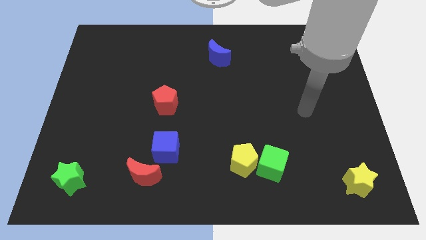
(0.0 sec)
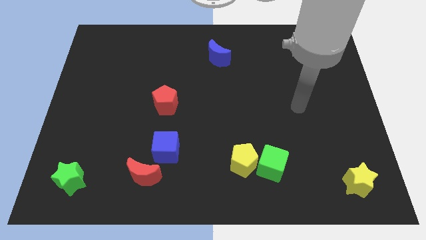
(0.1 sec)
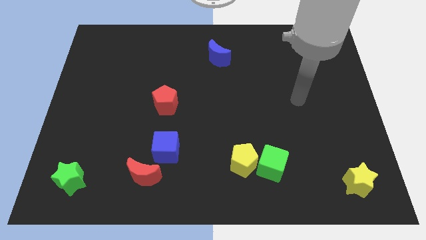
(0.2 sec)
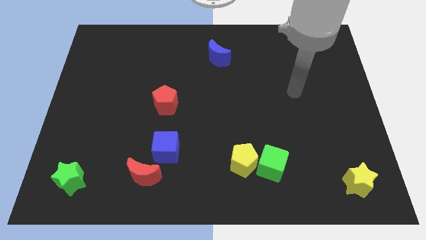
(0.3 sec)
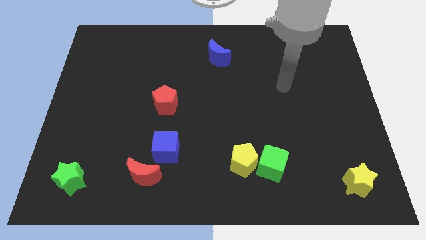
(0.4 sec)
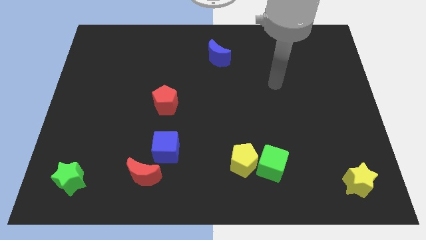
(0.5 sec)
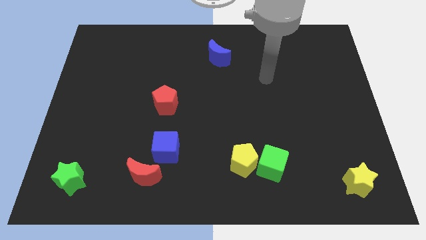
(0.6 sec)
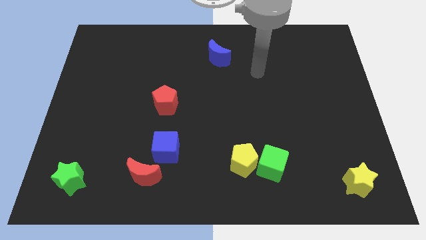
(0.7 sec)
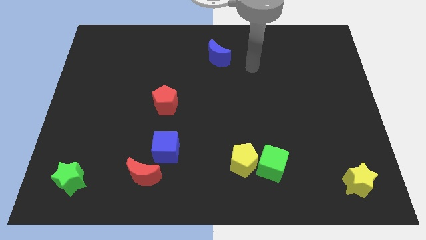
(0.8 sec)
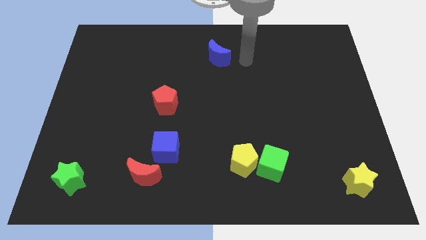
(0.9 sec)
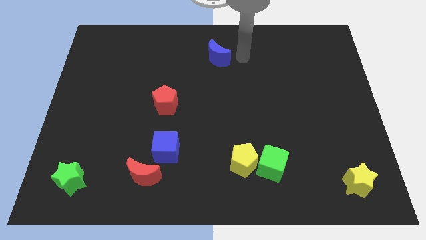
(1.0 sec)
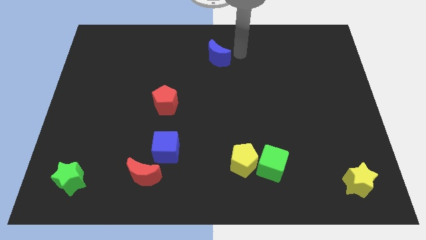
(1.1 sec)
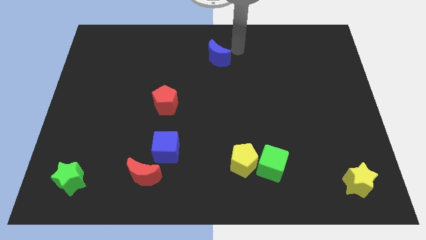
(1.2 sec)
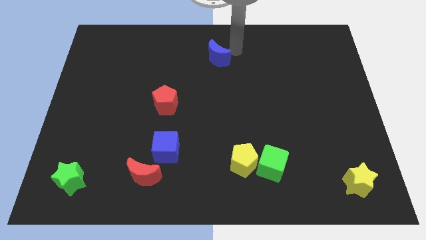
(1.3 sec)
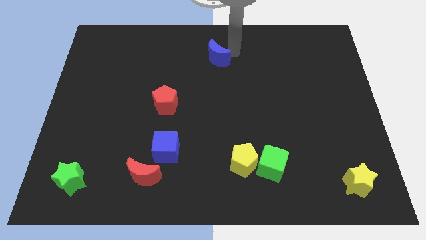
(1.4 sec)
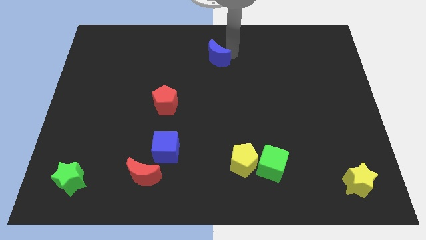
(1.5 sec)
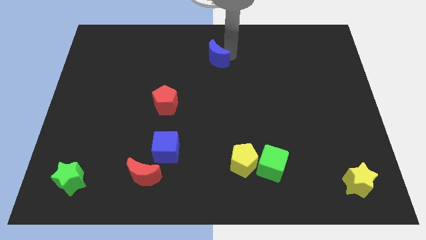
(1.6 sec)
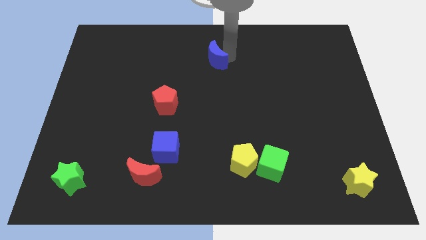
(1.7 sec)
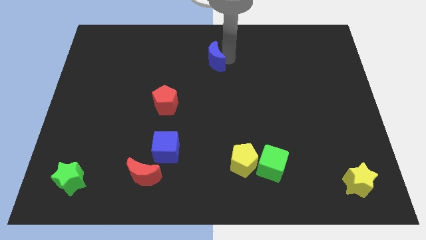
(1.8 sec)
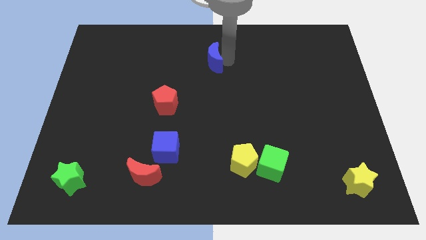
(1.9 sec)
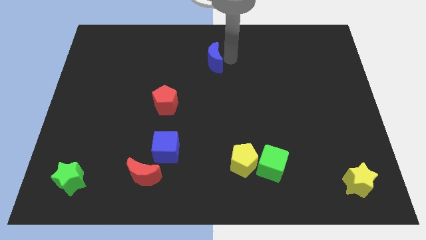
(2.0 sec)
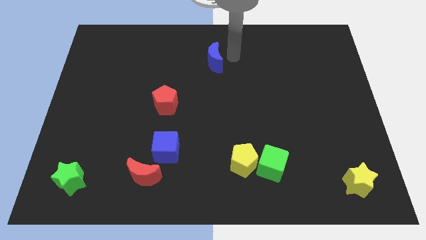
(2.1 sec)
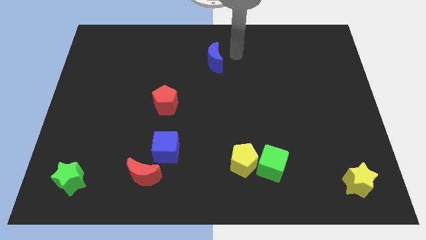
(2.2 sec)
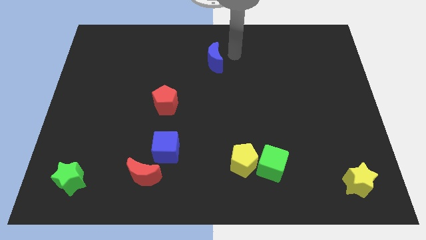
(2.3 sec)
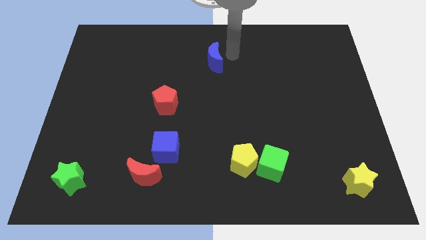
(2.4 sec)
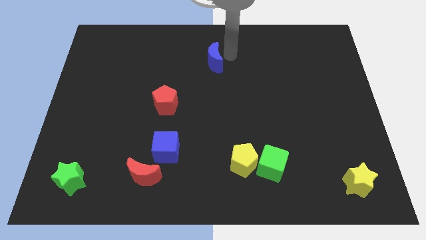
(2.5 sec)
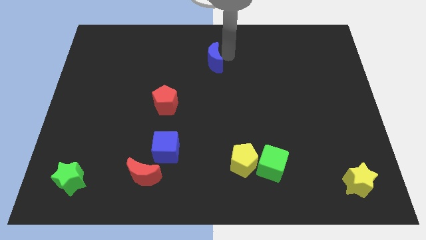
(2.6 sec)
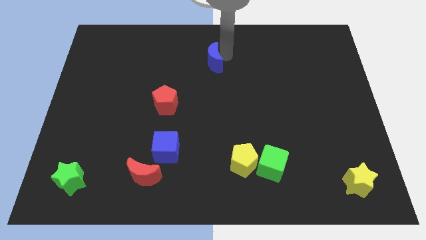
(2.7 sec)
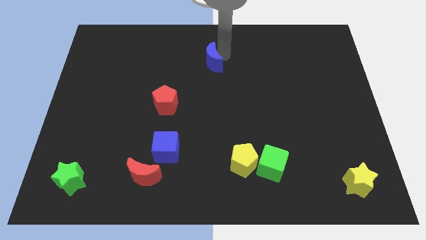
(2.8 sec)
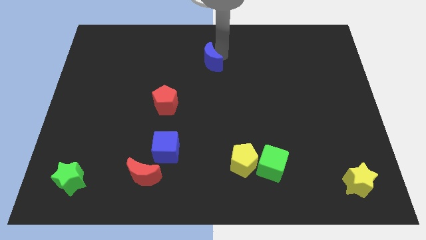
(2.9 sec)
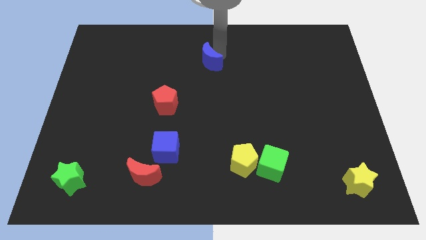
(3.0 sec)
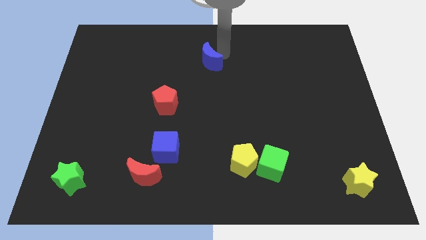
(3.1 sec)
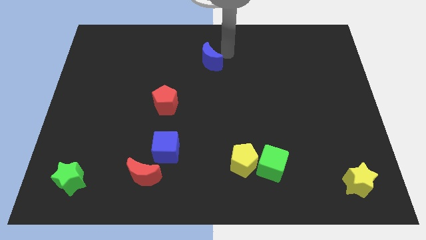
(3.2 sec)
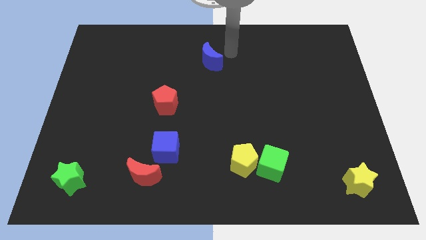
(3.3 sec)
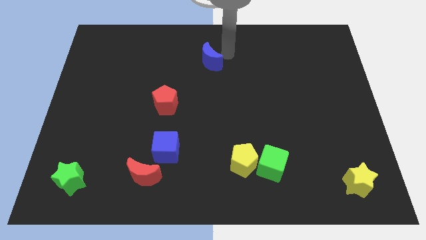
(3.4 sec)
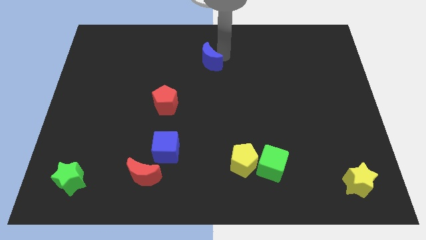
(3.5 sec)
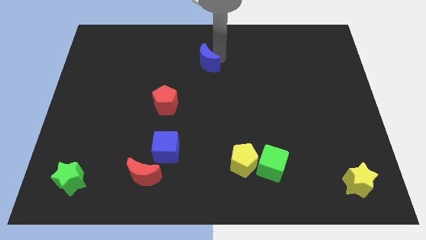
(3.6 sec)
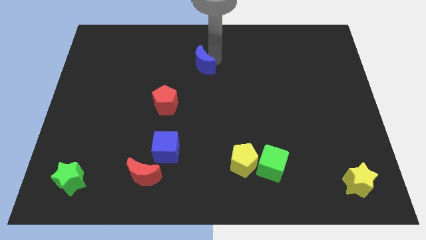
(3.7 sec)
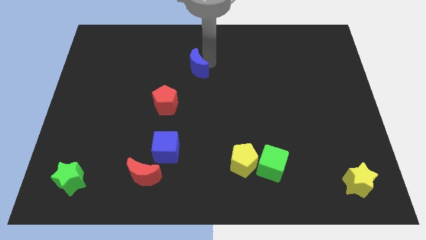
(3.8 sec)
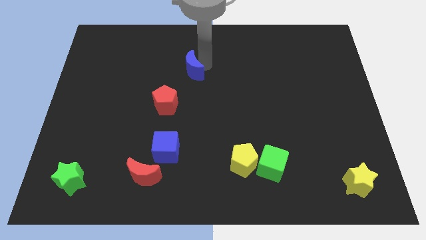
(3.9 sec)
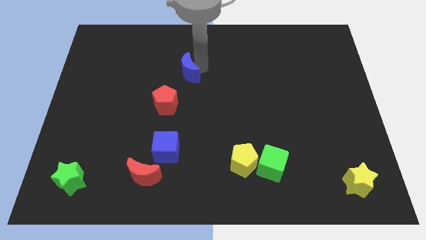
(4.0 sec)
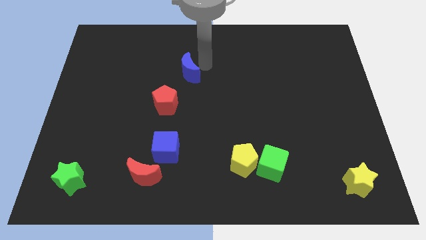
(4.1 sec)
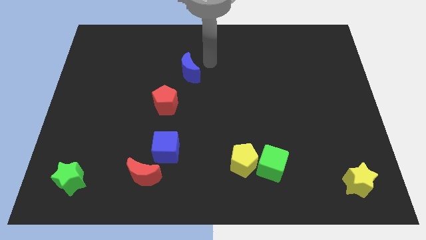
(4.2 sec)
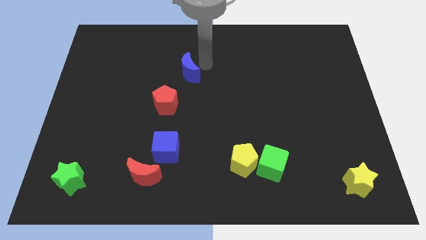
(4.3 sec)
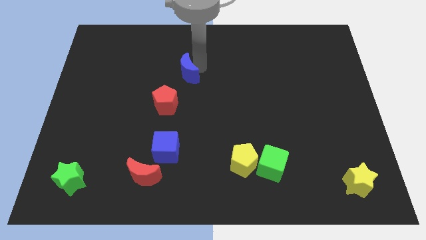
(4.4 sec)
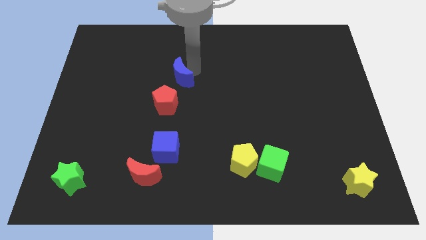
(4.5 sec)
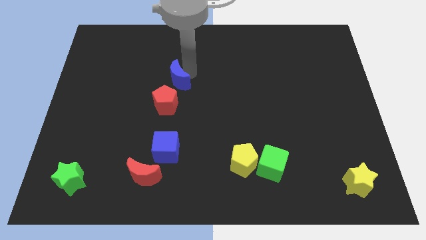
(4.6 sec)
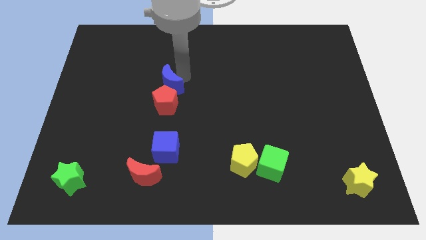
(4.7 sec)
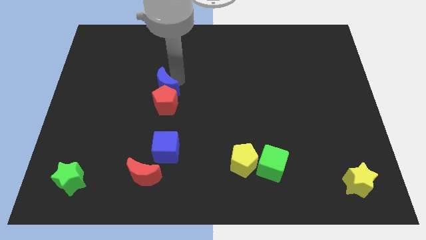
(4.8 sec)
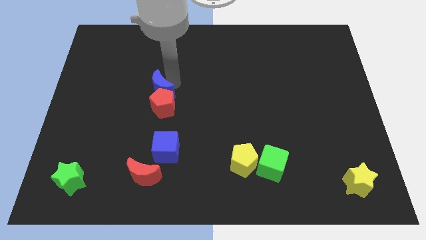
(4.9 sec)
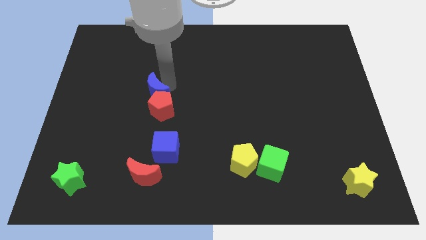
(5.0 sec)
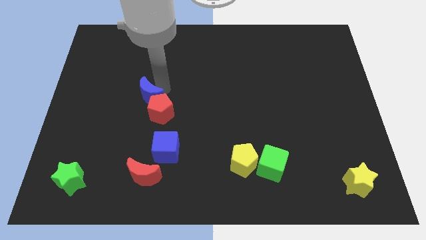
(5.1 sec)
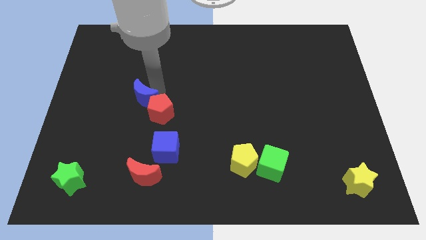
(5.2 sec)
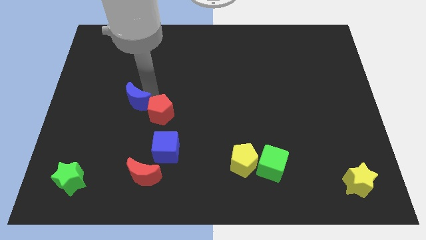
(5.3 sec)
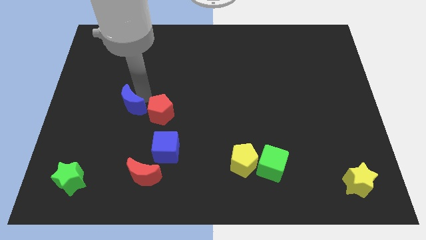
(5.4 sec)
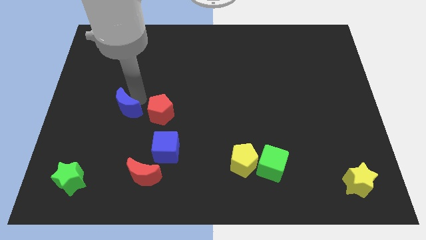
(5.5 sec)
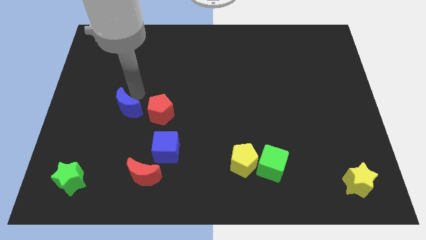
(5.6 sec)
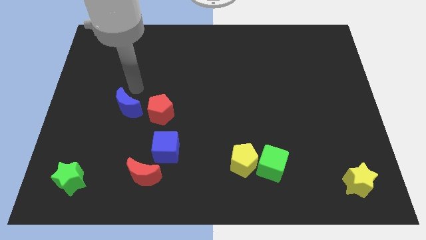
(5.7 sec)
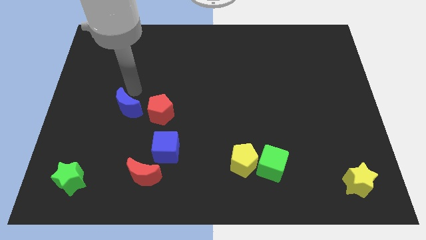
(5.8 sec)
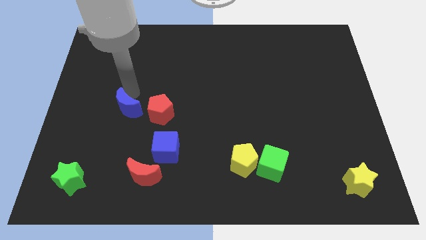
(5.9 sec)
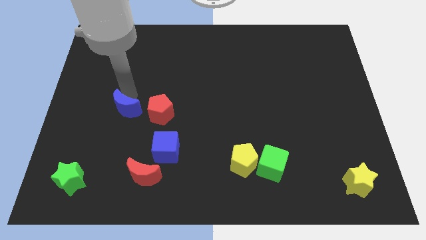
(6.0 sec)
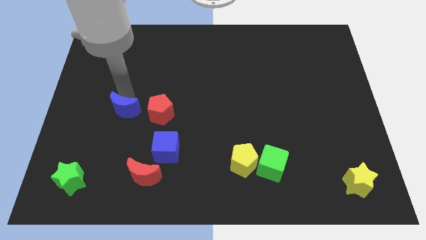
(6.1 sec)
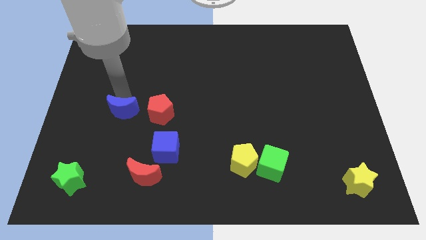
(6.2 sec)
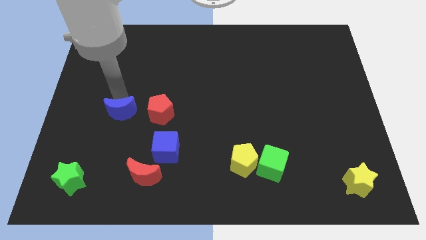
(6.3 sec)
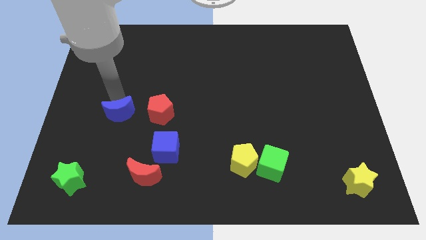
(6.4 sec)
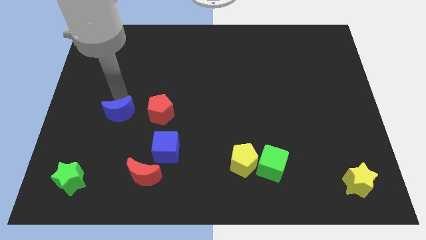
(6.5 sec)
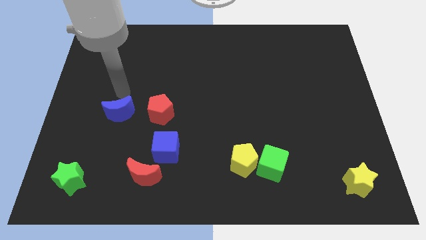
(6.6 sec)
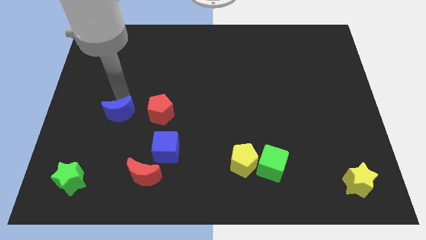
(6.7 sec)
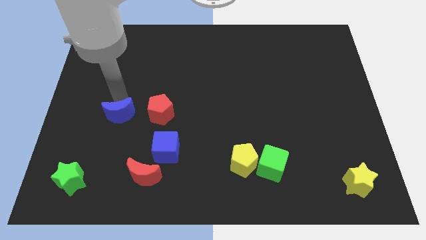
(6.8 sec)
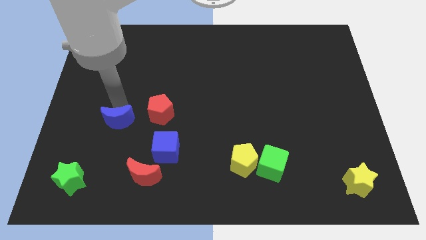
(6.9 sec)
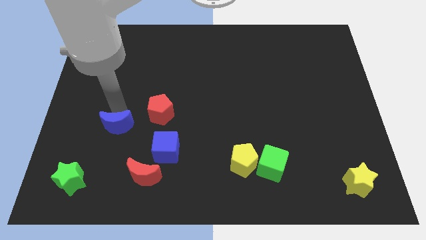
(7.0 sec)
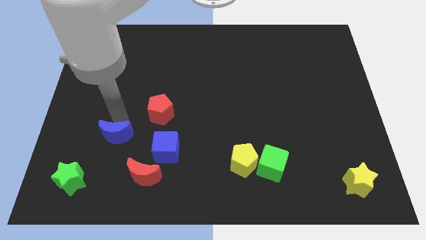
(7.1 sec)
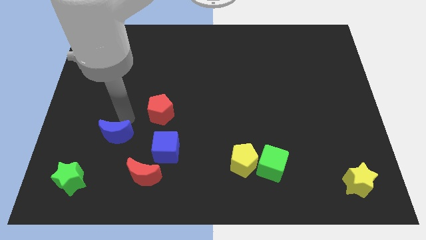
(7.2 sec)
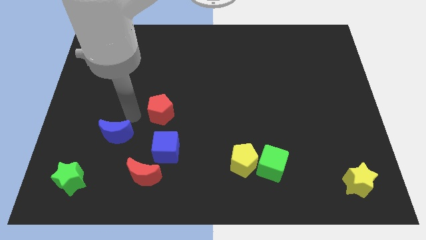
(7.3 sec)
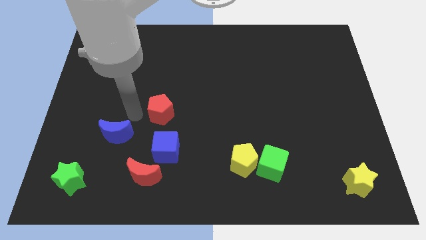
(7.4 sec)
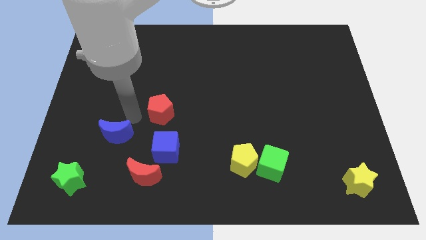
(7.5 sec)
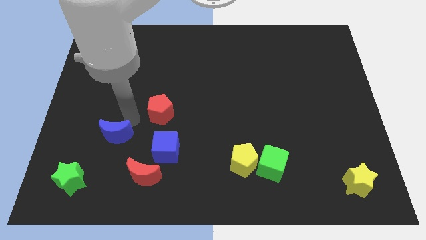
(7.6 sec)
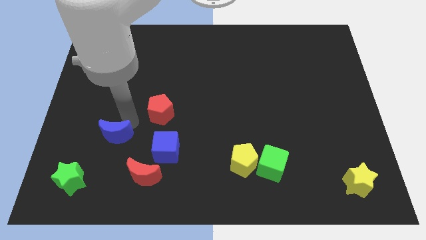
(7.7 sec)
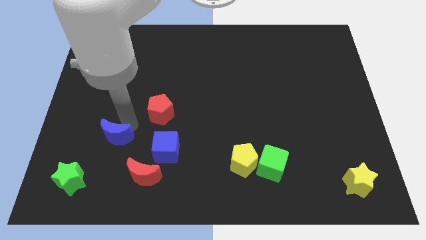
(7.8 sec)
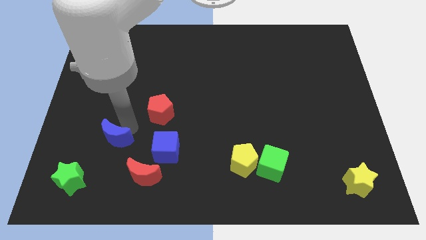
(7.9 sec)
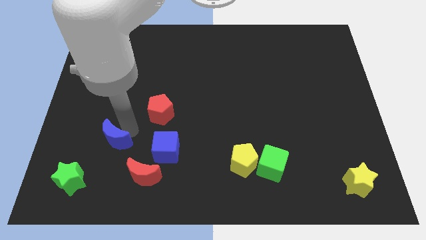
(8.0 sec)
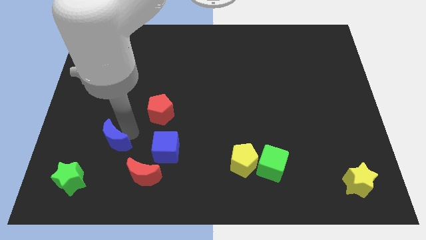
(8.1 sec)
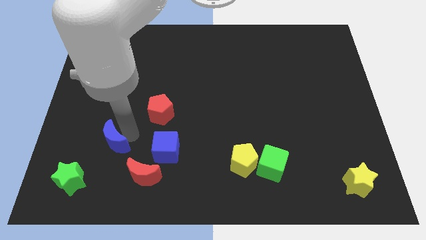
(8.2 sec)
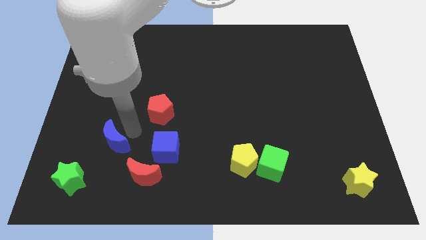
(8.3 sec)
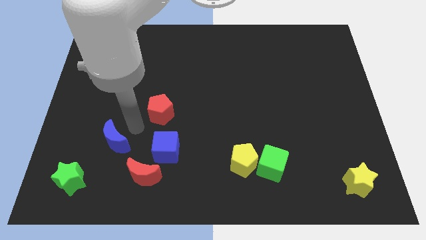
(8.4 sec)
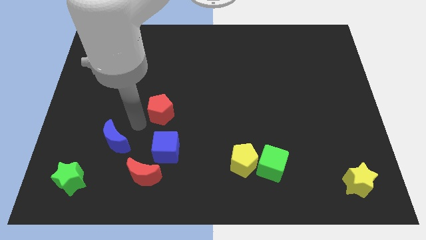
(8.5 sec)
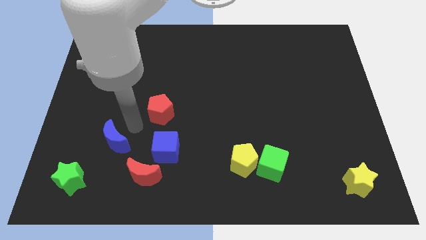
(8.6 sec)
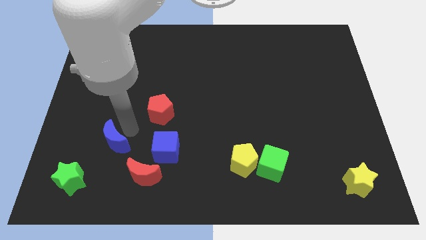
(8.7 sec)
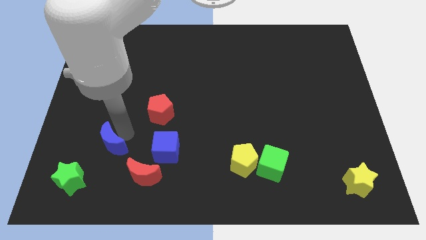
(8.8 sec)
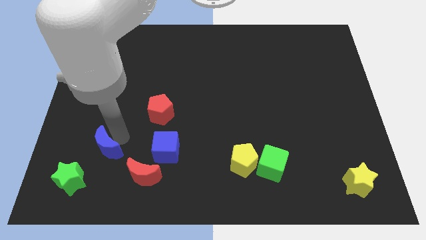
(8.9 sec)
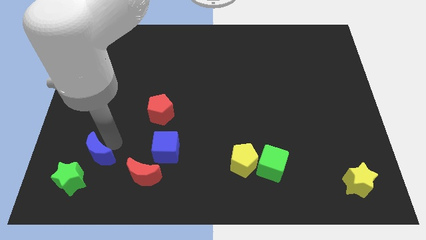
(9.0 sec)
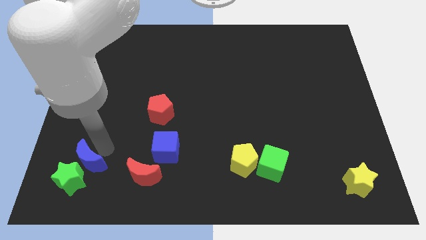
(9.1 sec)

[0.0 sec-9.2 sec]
slide the blue moon towards the green star
